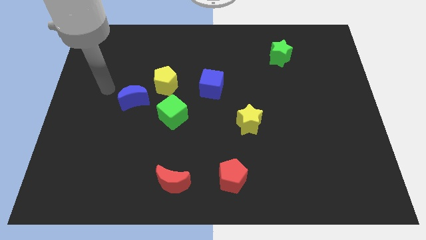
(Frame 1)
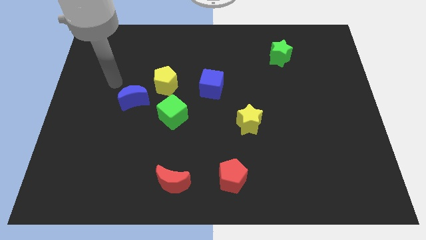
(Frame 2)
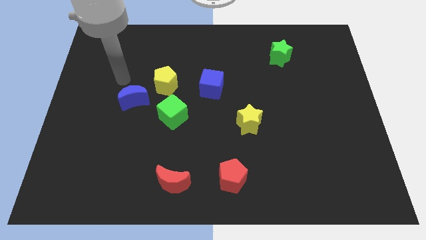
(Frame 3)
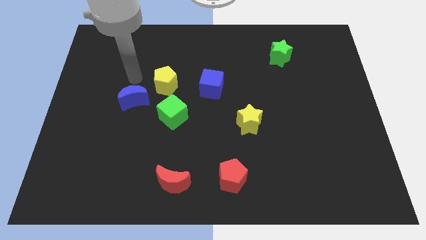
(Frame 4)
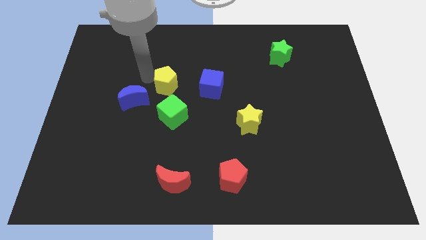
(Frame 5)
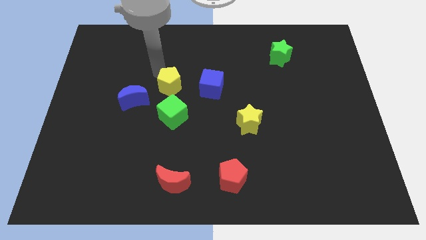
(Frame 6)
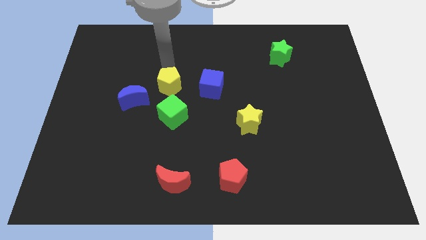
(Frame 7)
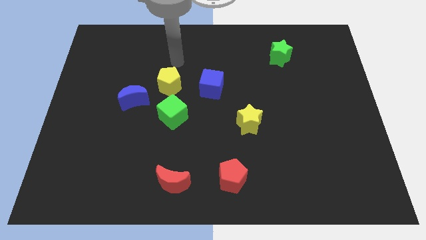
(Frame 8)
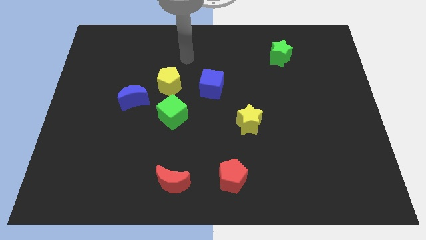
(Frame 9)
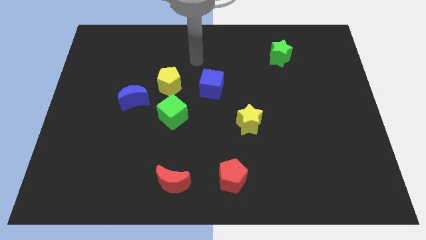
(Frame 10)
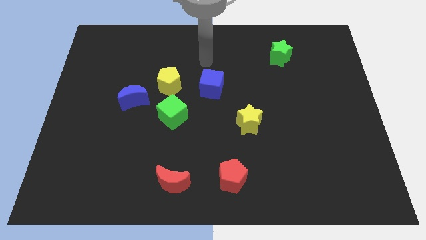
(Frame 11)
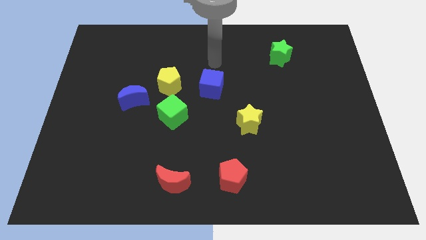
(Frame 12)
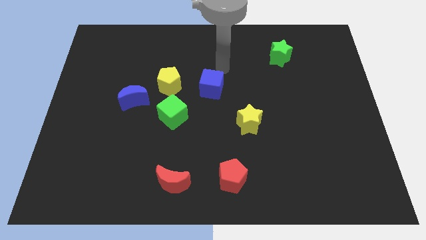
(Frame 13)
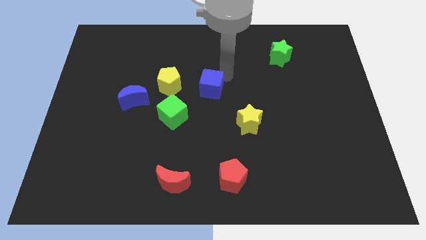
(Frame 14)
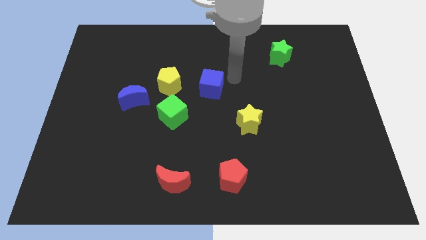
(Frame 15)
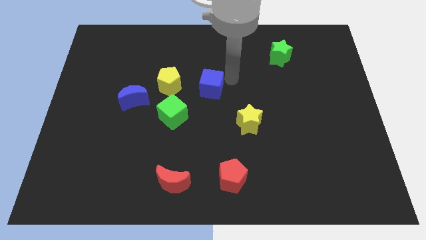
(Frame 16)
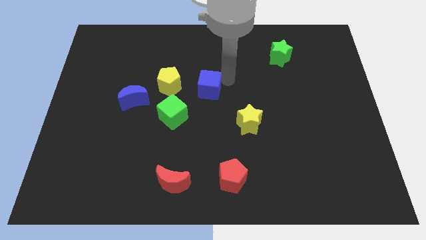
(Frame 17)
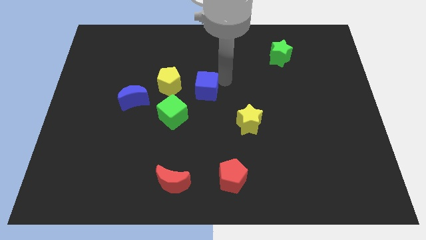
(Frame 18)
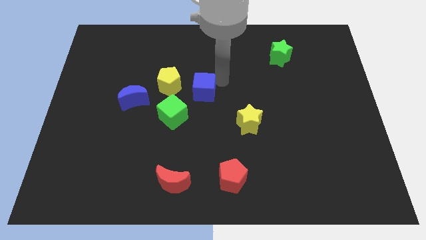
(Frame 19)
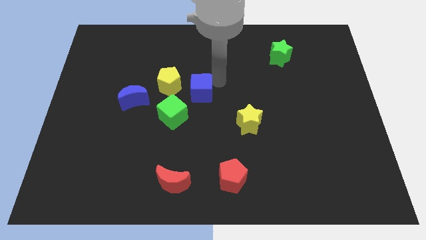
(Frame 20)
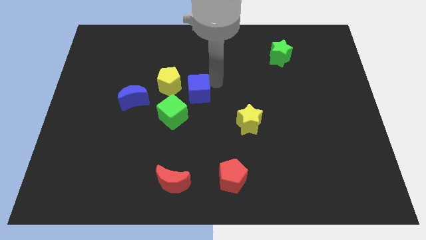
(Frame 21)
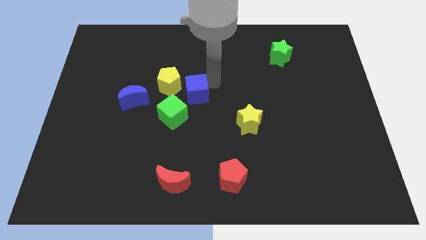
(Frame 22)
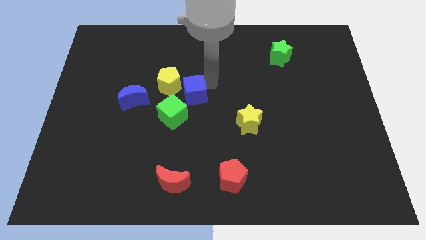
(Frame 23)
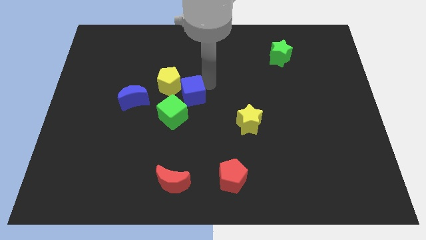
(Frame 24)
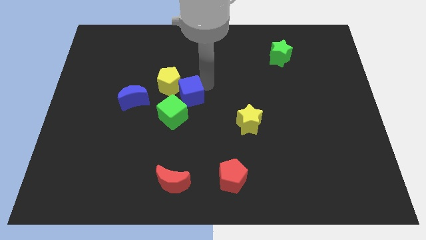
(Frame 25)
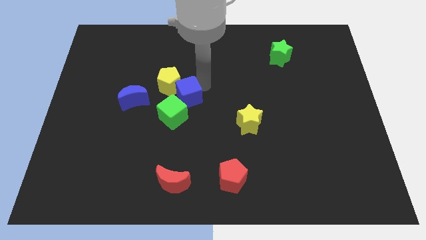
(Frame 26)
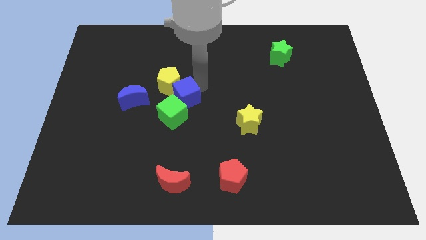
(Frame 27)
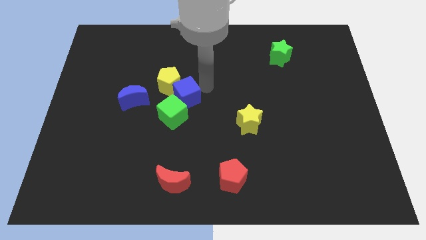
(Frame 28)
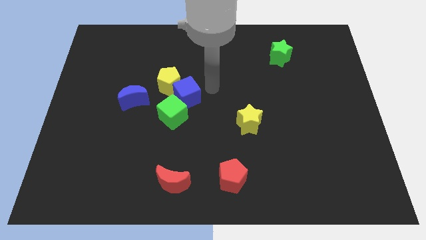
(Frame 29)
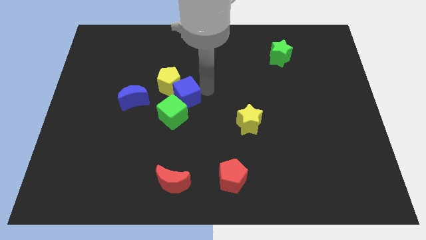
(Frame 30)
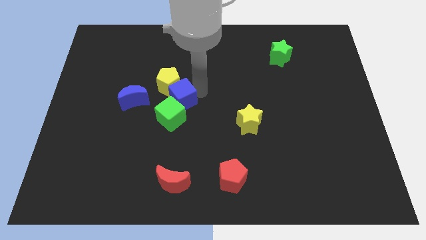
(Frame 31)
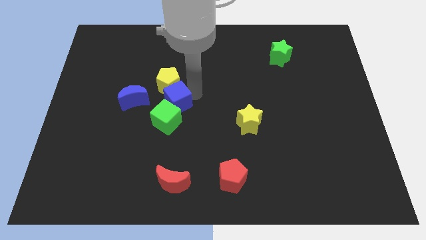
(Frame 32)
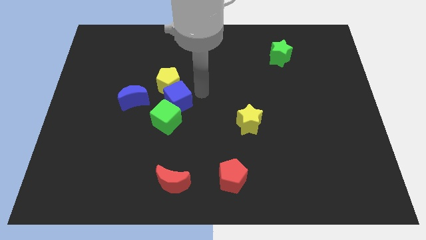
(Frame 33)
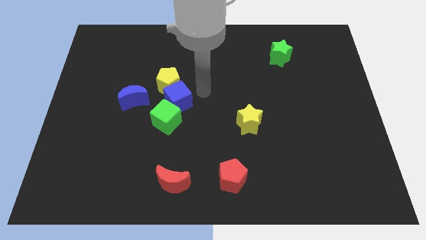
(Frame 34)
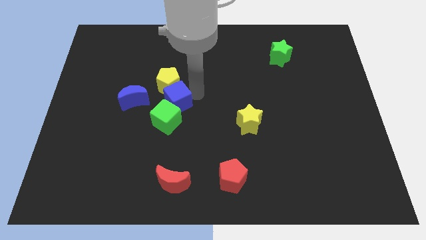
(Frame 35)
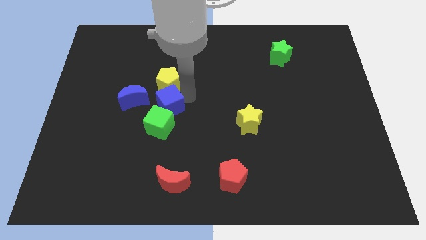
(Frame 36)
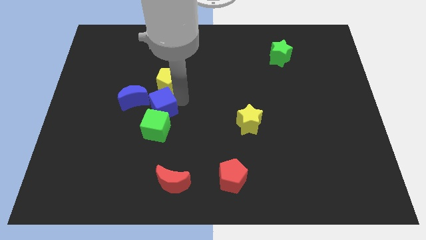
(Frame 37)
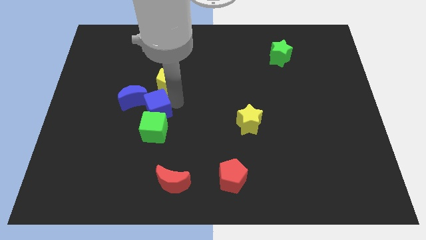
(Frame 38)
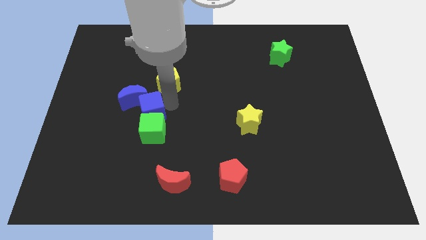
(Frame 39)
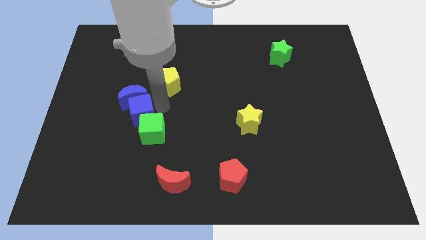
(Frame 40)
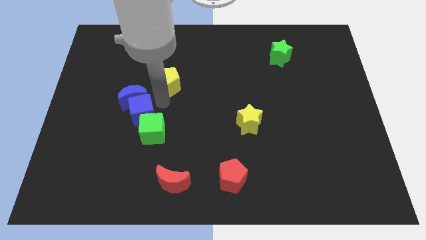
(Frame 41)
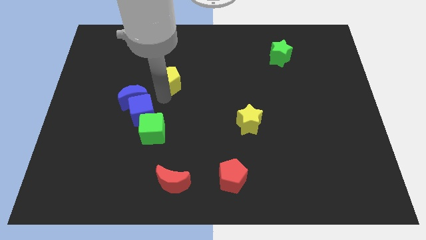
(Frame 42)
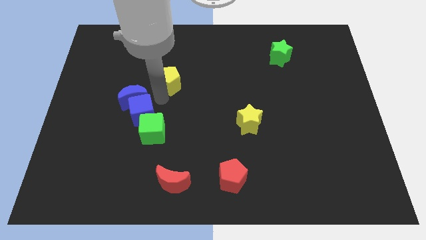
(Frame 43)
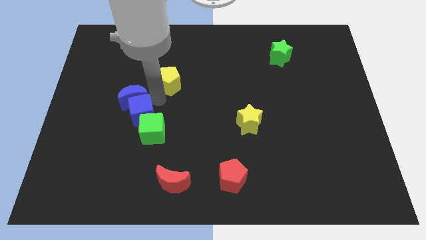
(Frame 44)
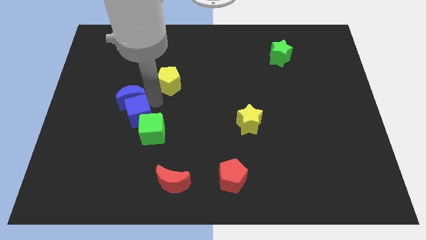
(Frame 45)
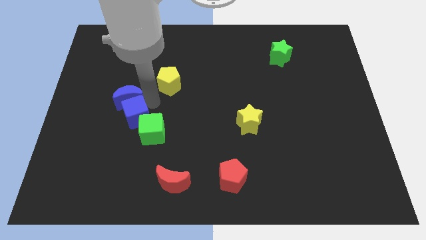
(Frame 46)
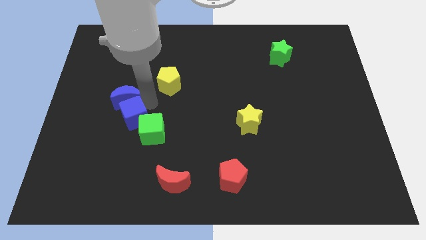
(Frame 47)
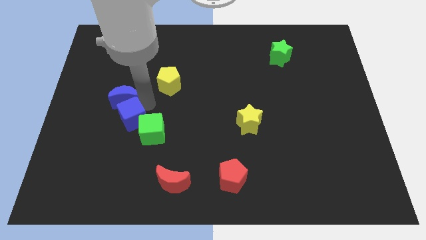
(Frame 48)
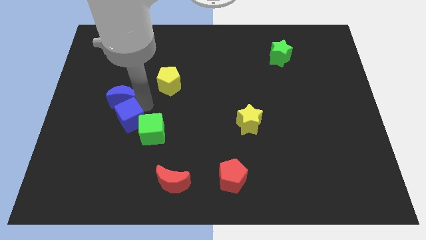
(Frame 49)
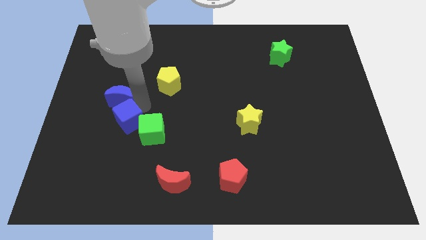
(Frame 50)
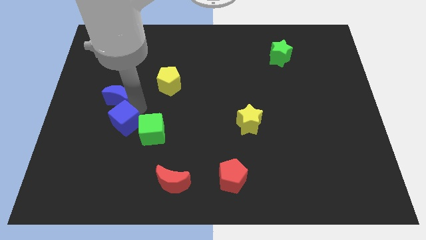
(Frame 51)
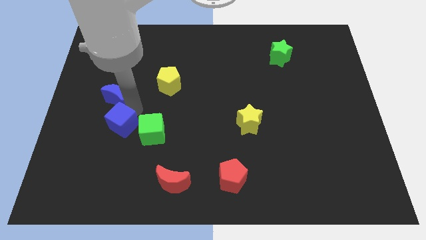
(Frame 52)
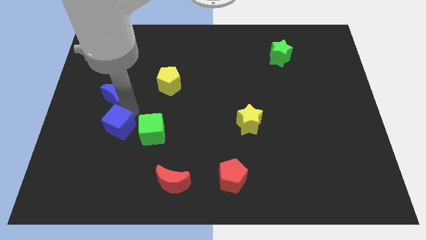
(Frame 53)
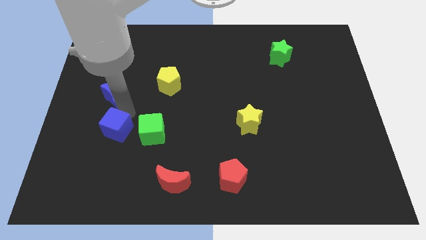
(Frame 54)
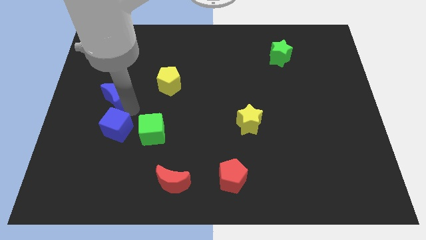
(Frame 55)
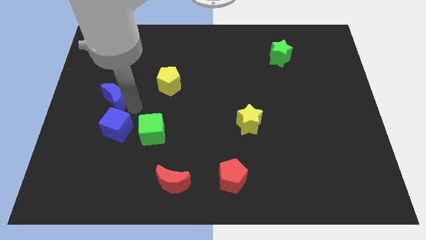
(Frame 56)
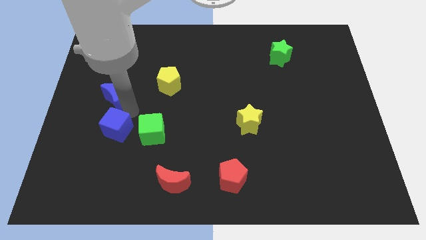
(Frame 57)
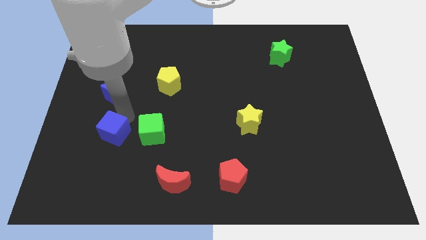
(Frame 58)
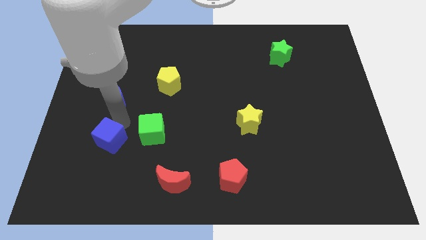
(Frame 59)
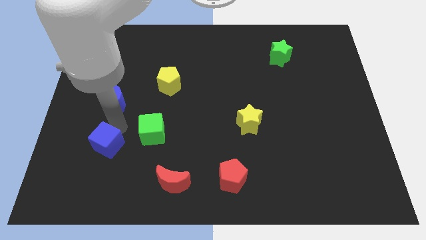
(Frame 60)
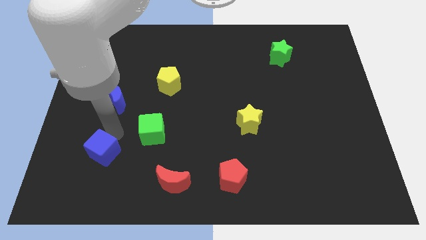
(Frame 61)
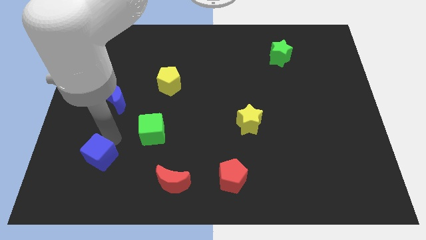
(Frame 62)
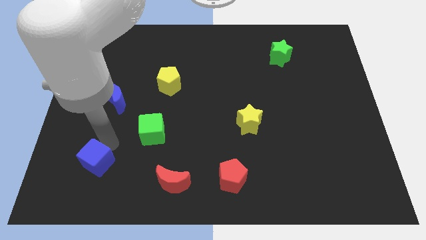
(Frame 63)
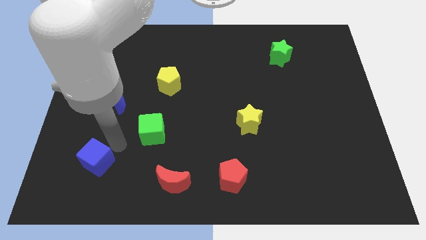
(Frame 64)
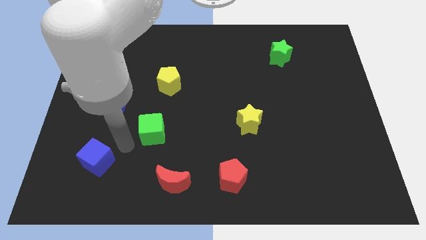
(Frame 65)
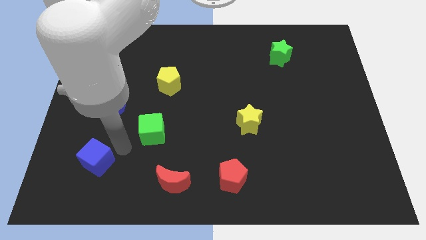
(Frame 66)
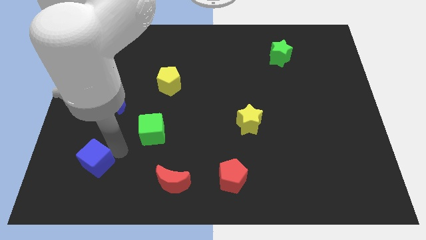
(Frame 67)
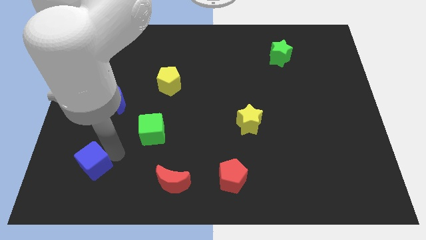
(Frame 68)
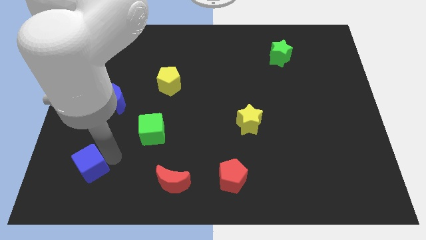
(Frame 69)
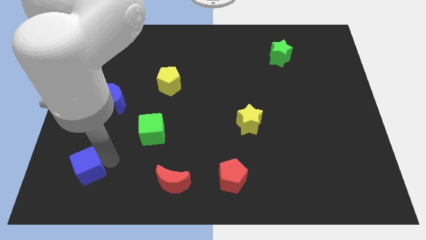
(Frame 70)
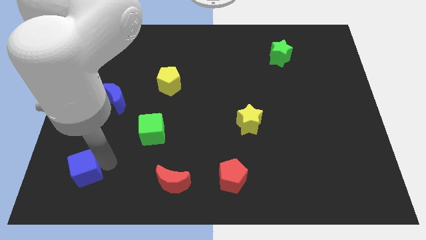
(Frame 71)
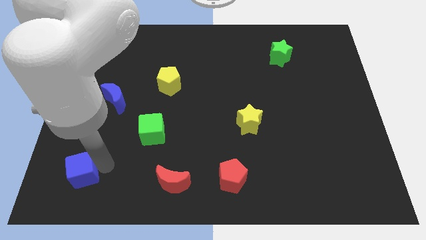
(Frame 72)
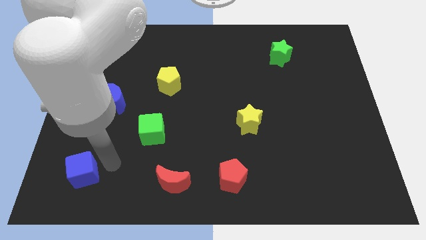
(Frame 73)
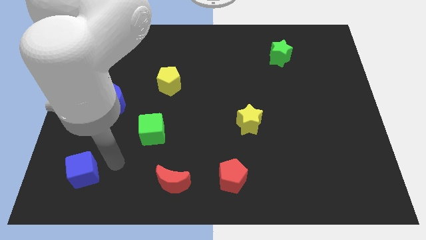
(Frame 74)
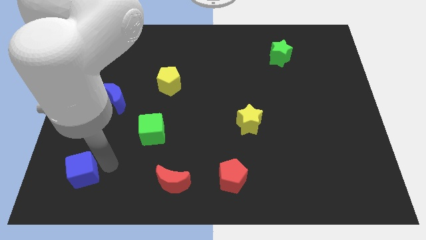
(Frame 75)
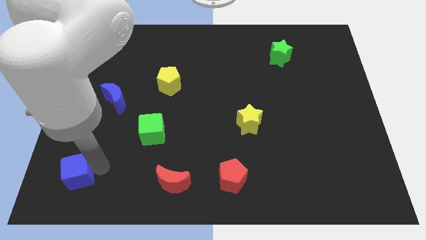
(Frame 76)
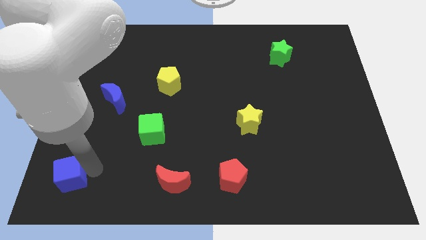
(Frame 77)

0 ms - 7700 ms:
move the blue cube to the lower left corner
